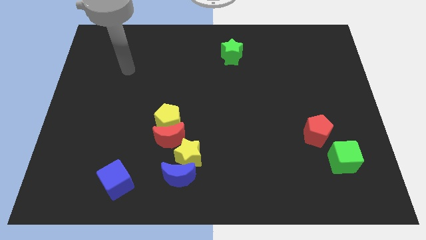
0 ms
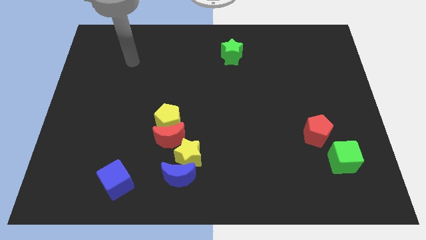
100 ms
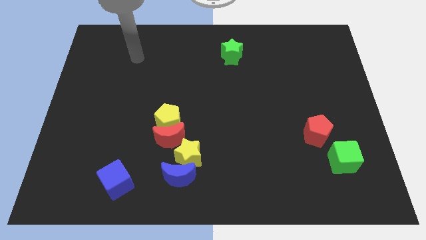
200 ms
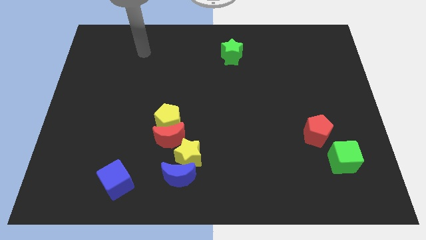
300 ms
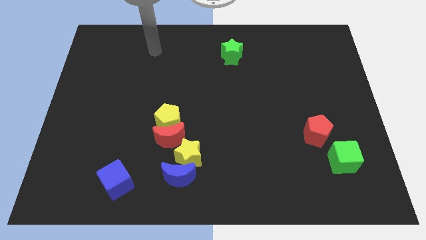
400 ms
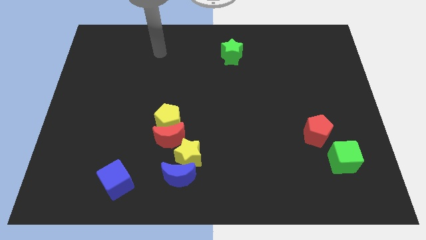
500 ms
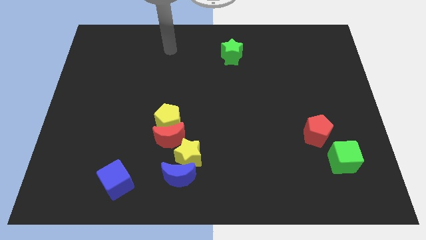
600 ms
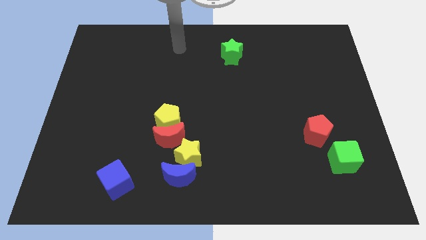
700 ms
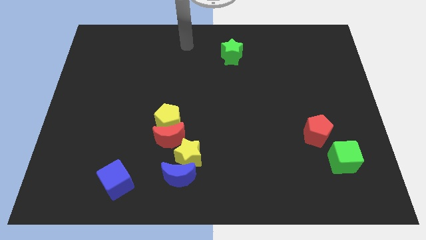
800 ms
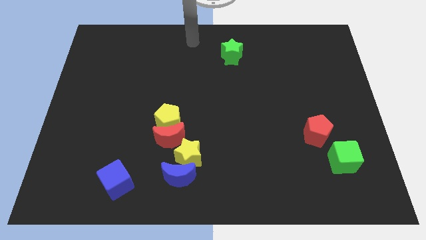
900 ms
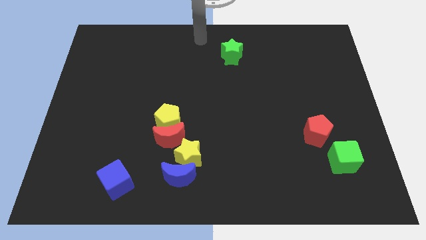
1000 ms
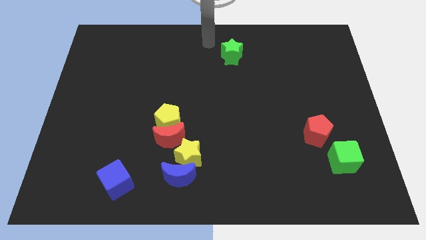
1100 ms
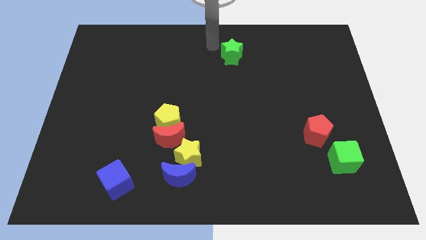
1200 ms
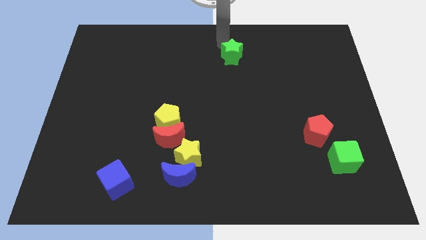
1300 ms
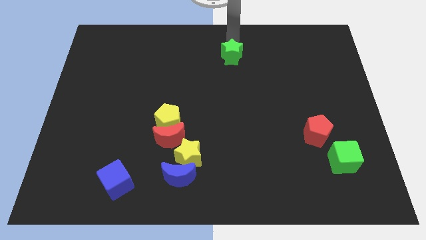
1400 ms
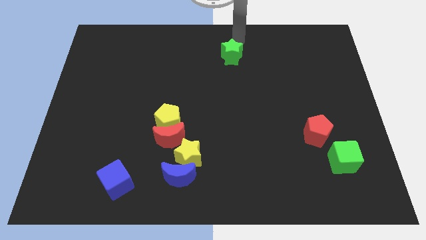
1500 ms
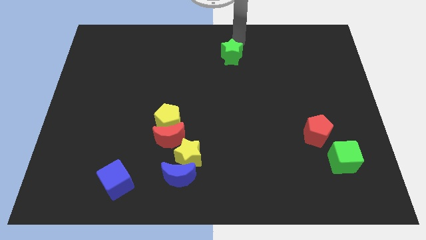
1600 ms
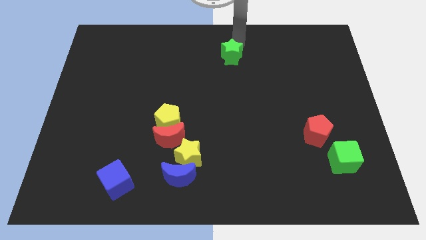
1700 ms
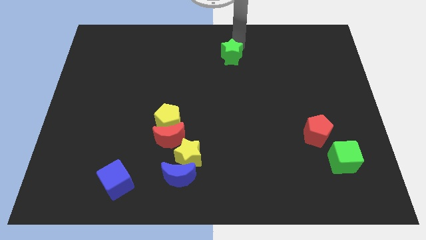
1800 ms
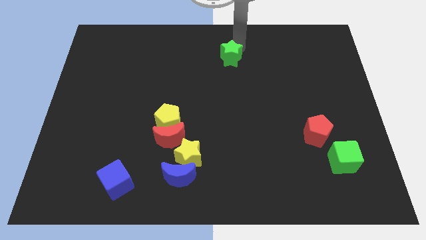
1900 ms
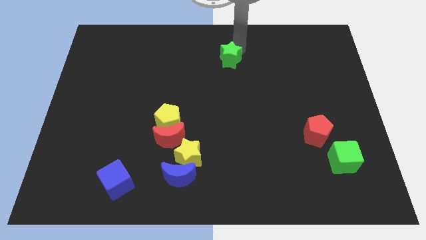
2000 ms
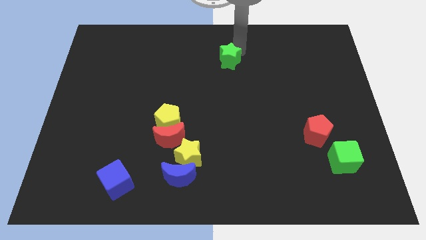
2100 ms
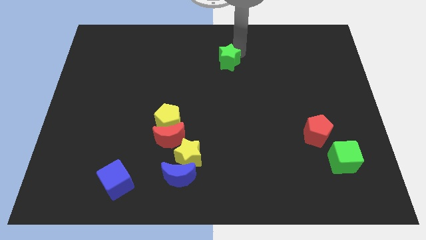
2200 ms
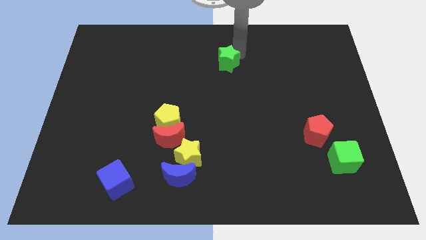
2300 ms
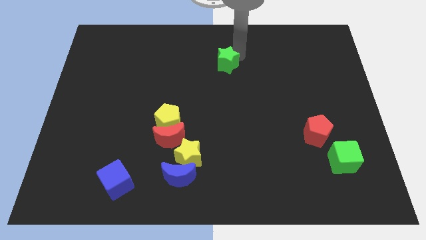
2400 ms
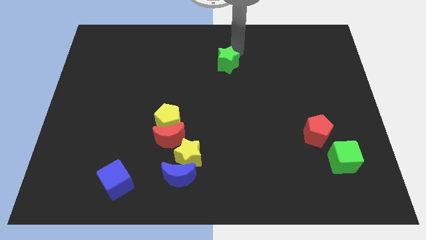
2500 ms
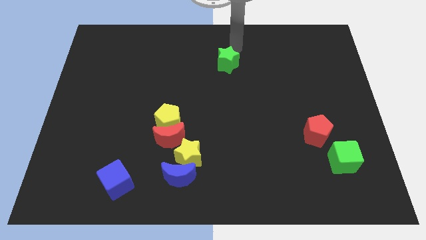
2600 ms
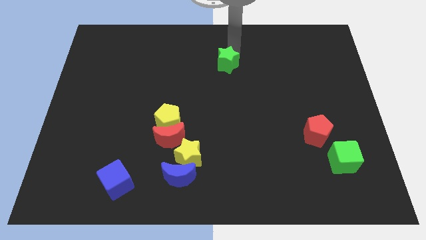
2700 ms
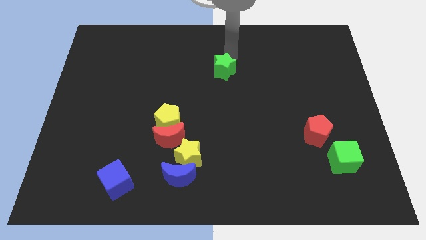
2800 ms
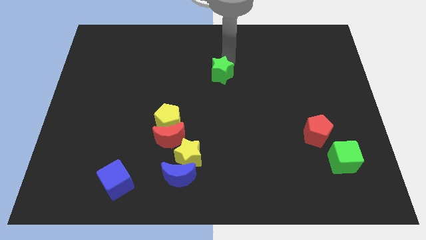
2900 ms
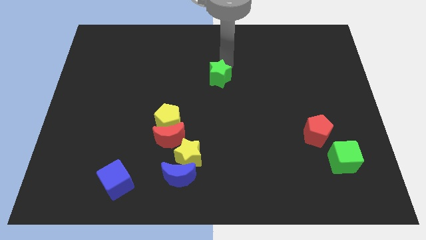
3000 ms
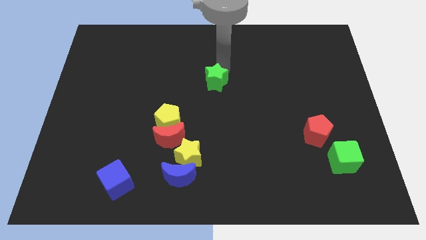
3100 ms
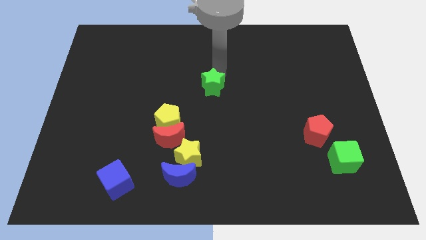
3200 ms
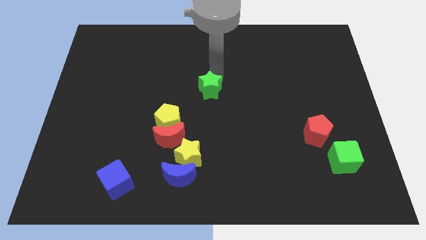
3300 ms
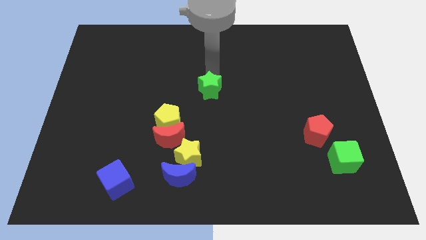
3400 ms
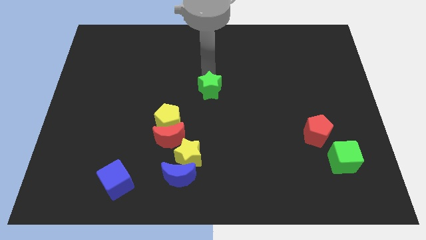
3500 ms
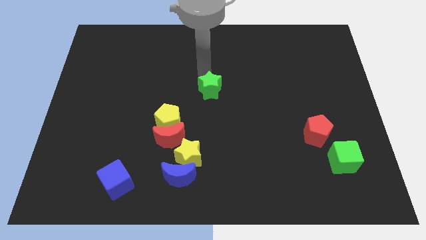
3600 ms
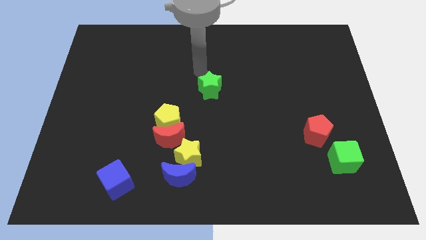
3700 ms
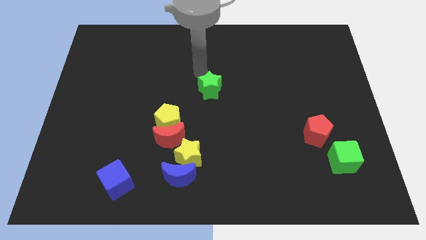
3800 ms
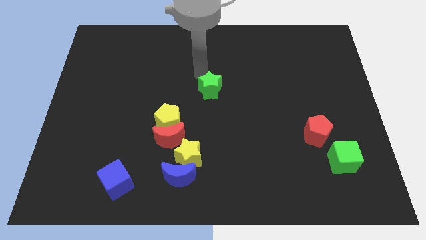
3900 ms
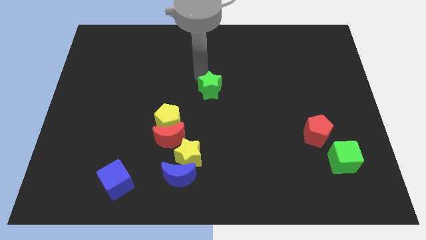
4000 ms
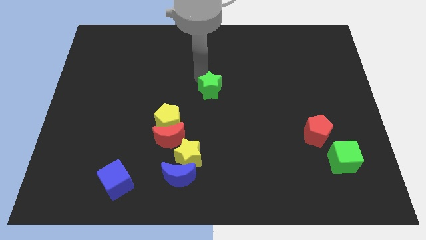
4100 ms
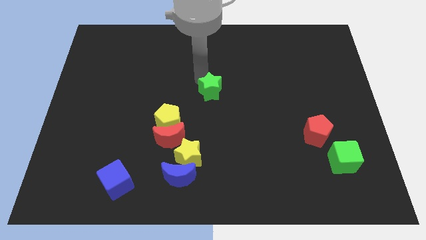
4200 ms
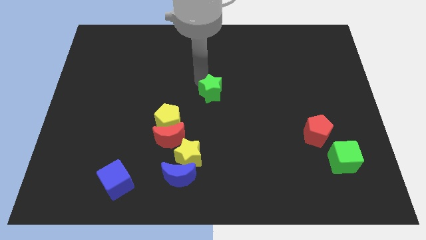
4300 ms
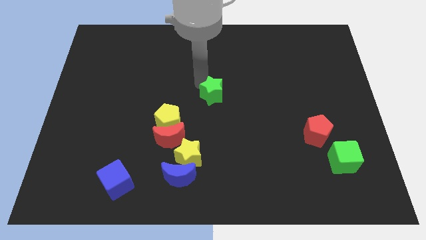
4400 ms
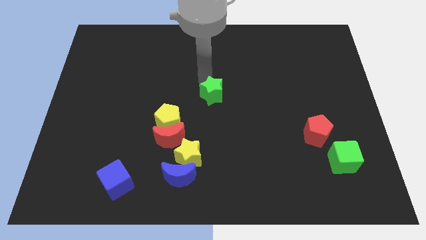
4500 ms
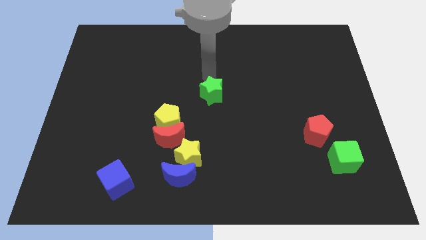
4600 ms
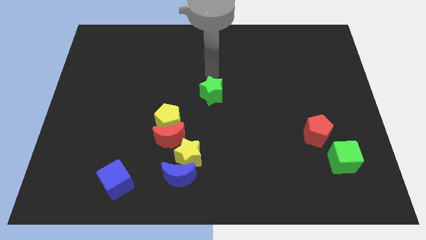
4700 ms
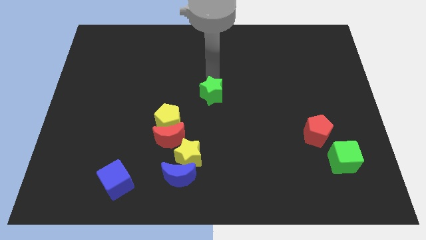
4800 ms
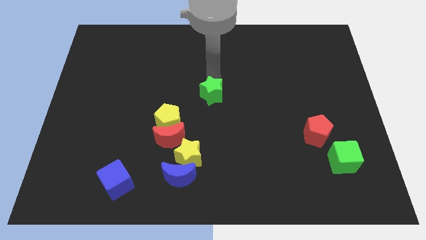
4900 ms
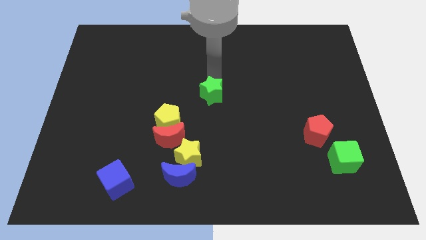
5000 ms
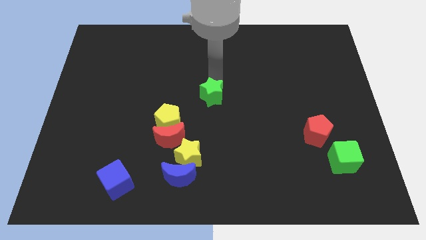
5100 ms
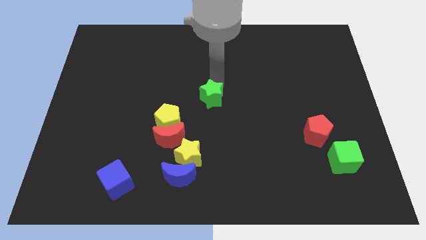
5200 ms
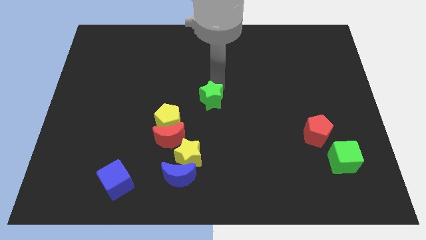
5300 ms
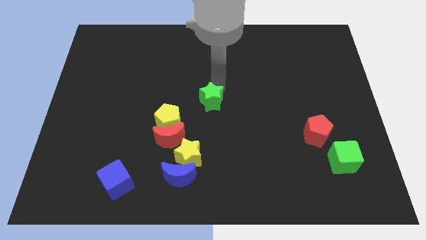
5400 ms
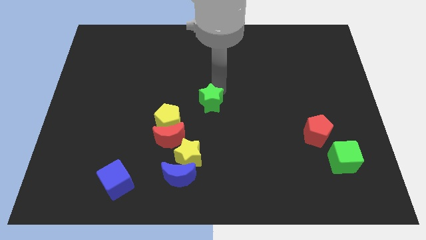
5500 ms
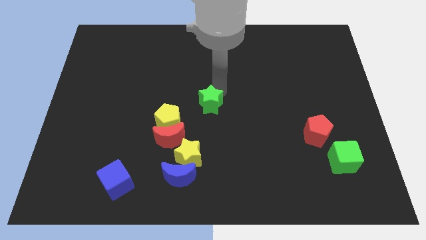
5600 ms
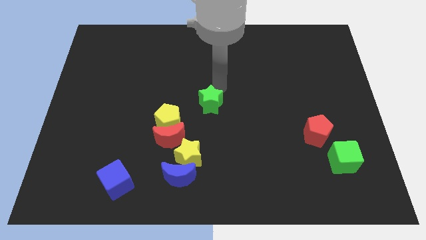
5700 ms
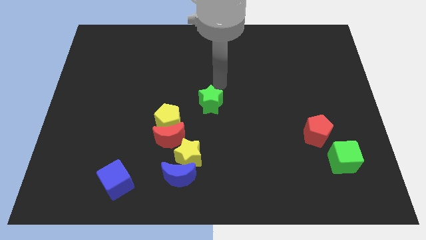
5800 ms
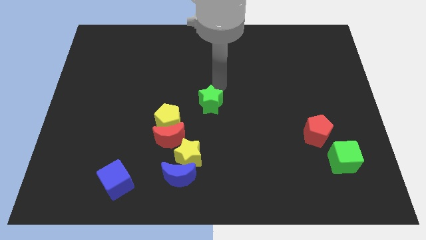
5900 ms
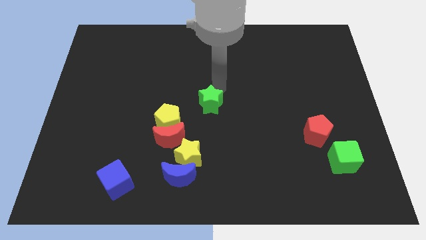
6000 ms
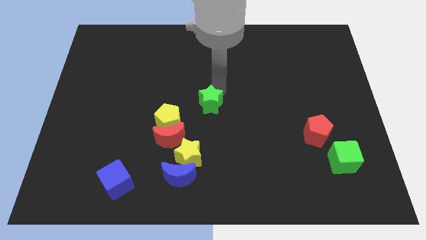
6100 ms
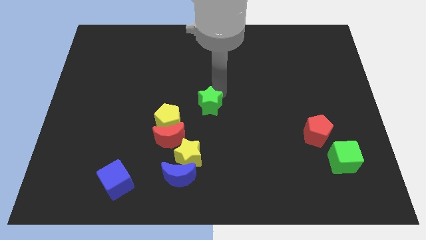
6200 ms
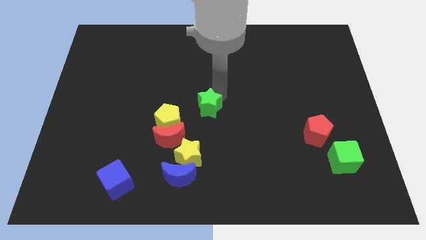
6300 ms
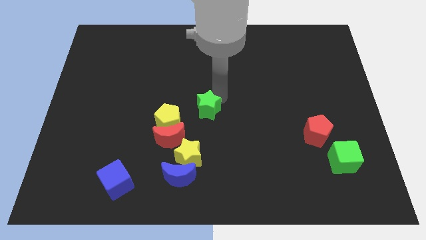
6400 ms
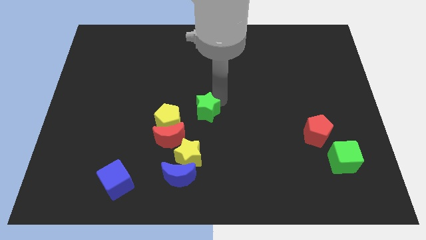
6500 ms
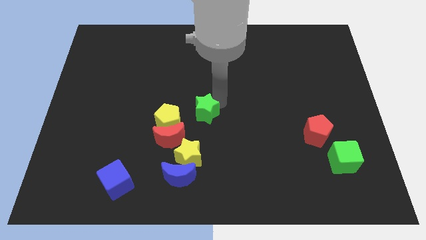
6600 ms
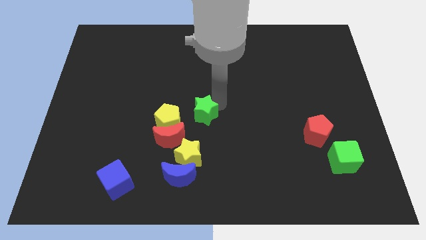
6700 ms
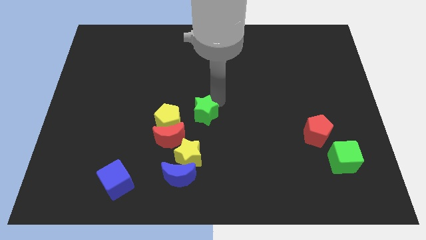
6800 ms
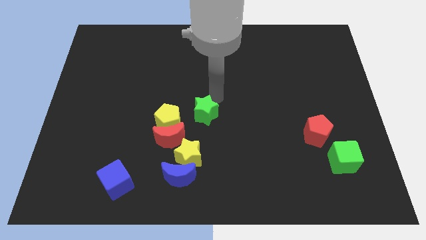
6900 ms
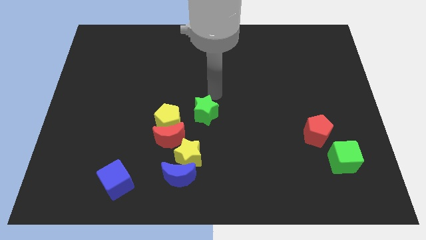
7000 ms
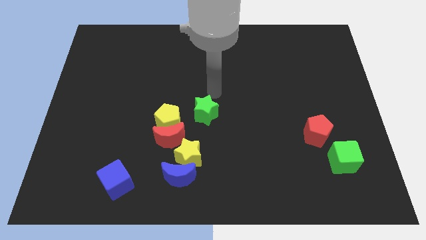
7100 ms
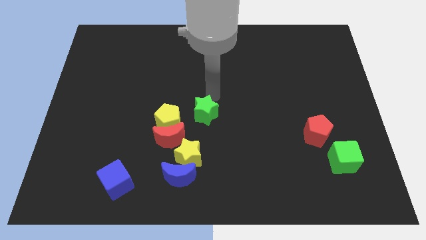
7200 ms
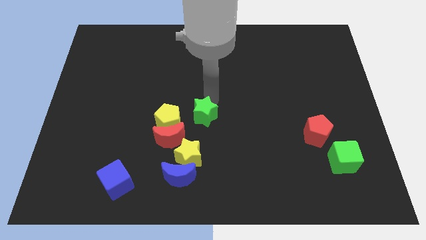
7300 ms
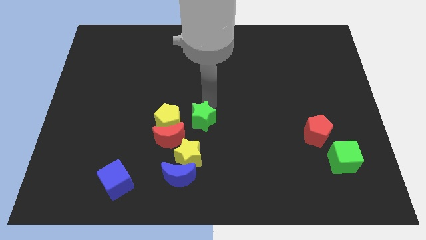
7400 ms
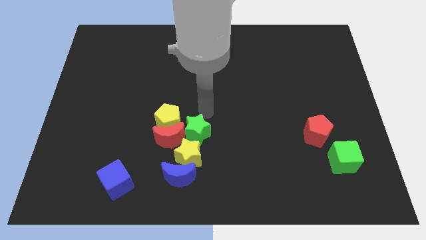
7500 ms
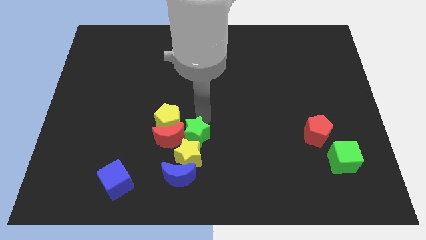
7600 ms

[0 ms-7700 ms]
push the green star next to the yellow star
